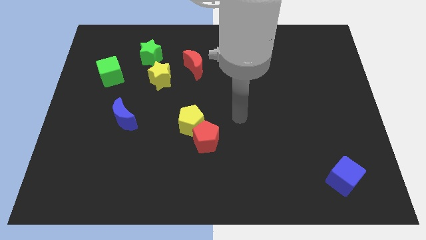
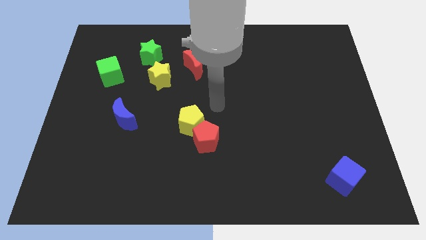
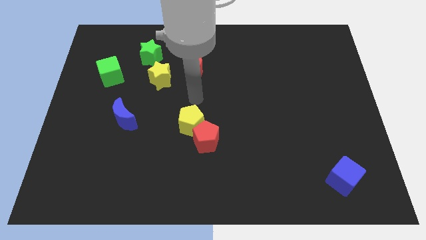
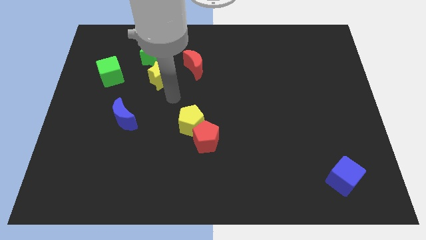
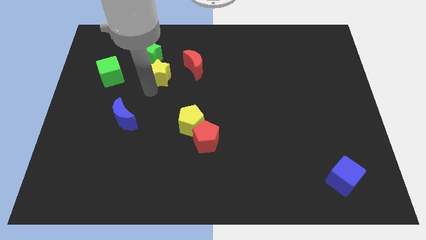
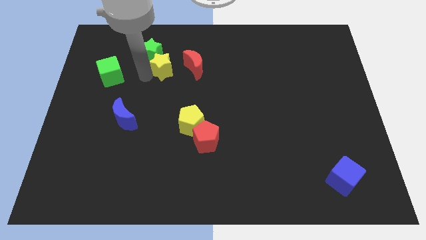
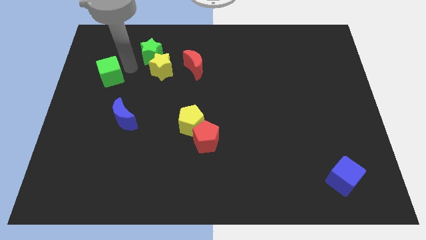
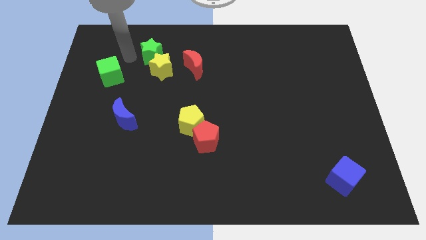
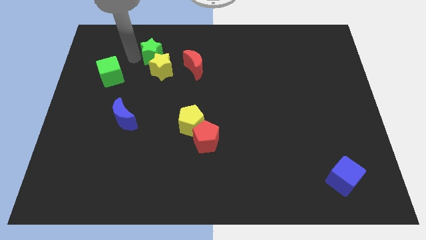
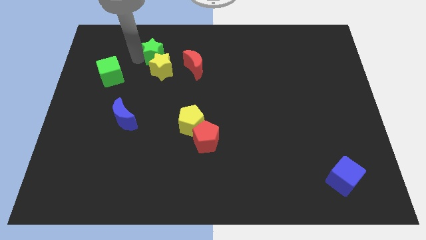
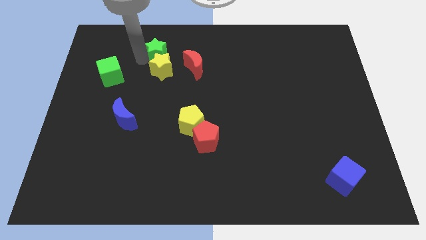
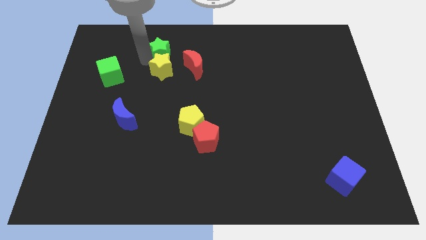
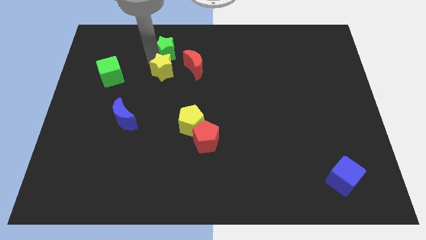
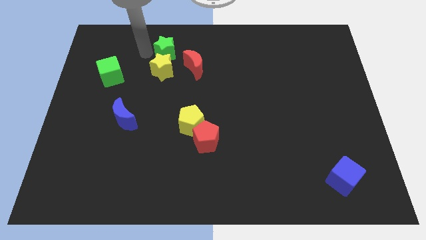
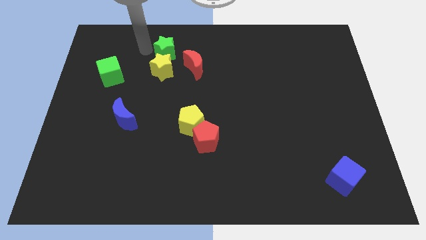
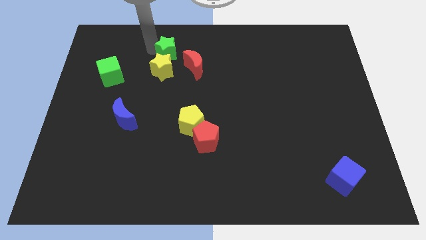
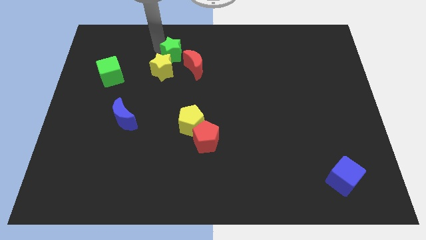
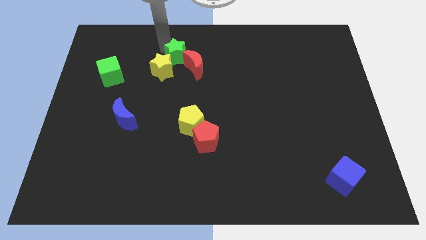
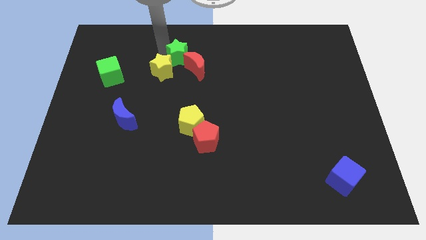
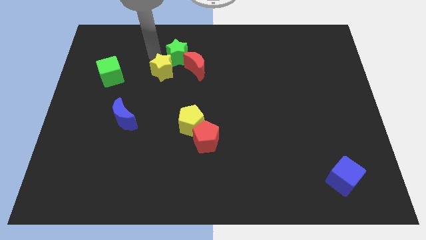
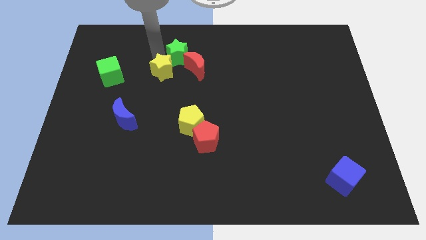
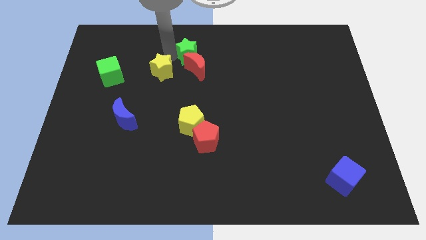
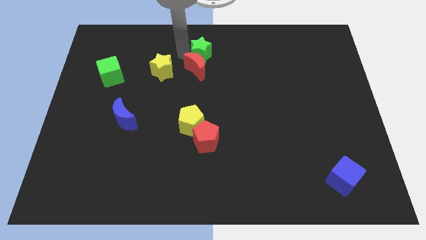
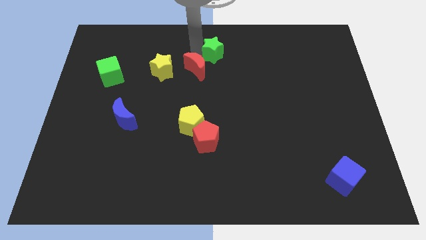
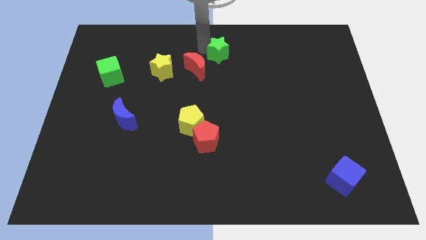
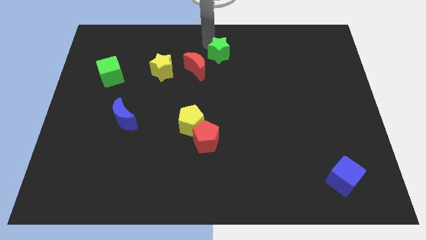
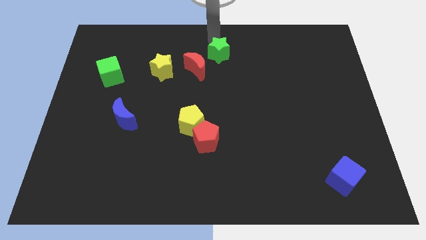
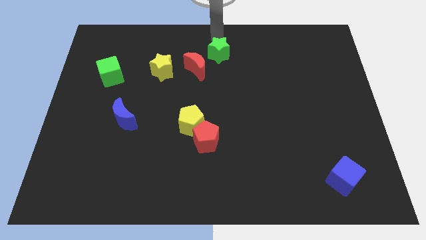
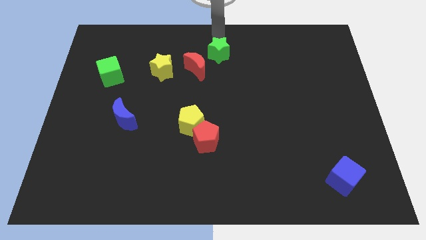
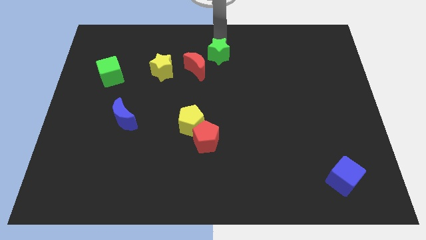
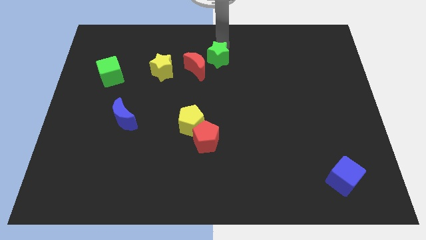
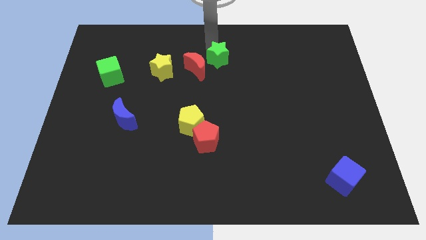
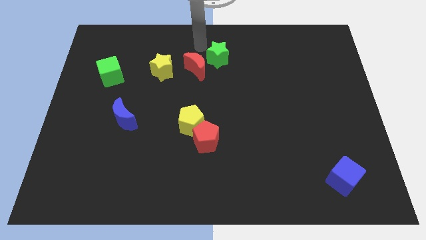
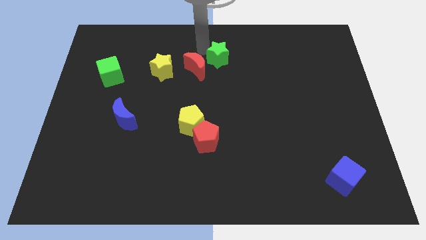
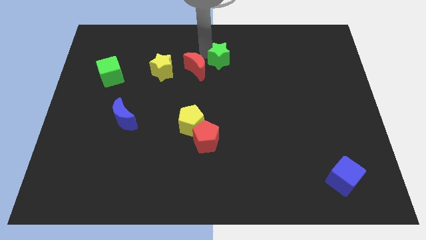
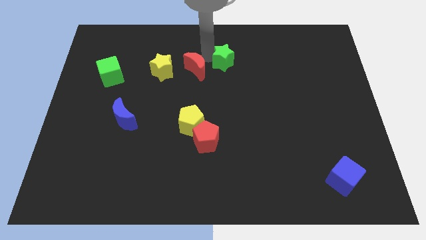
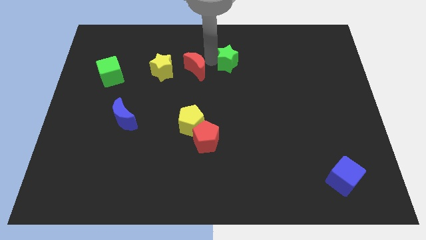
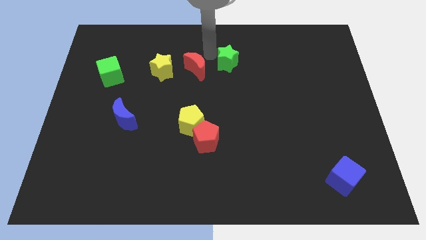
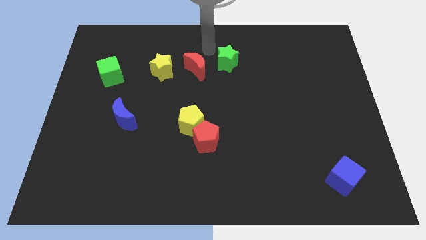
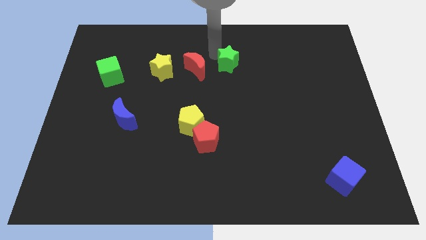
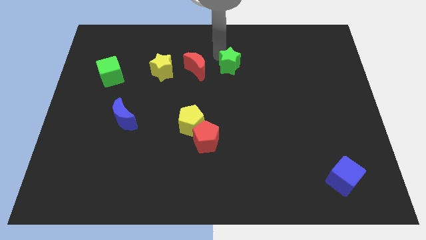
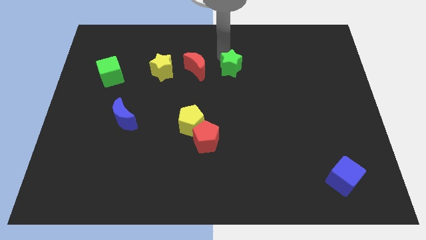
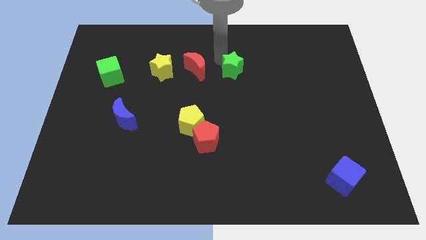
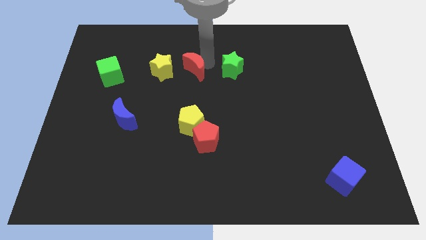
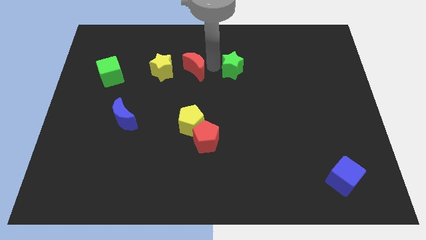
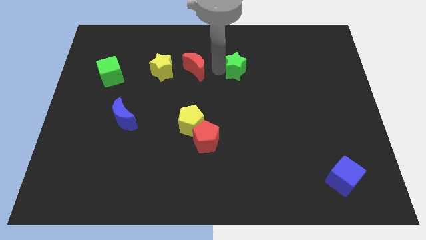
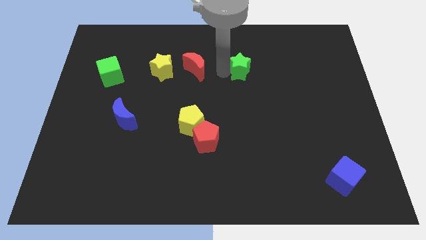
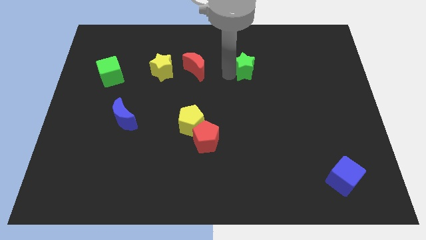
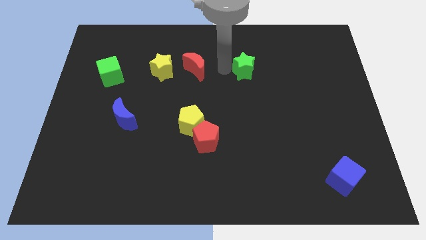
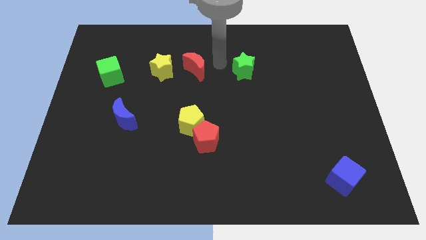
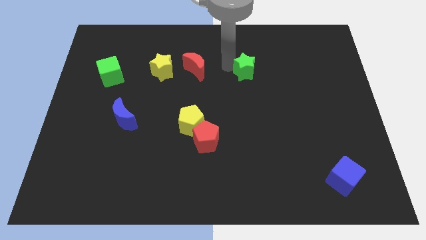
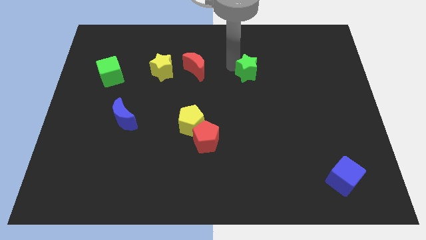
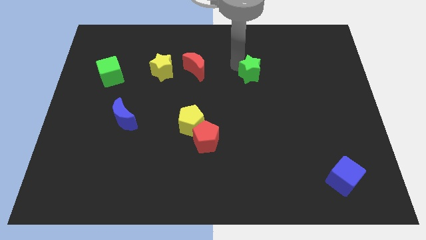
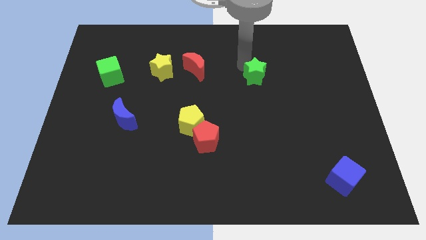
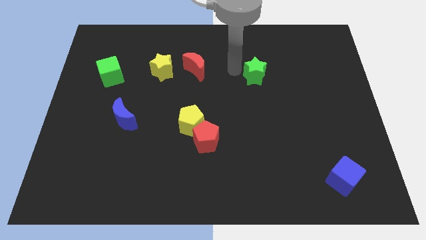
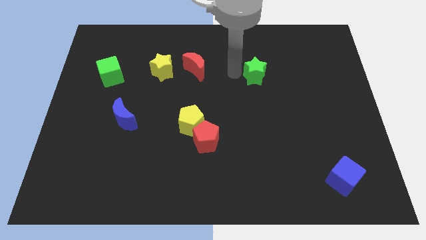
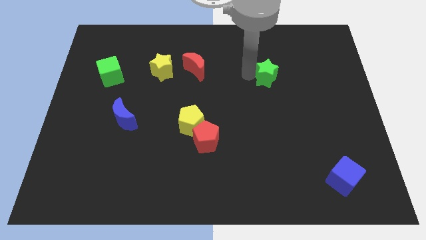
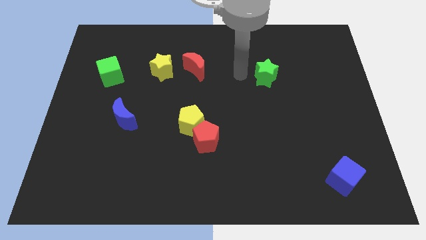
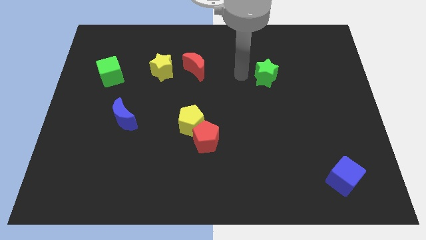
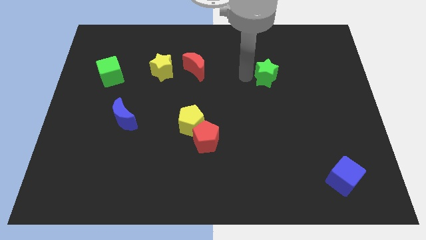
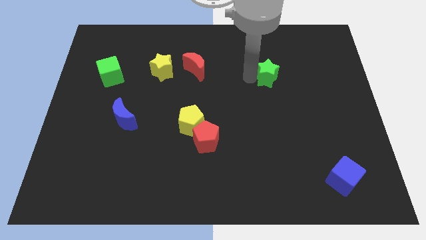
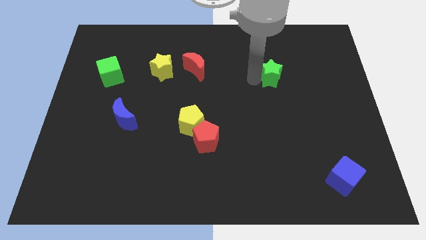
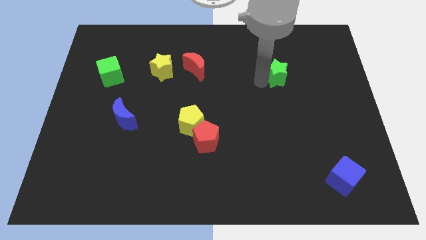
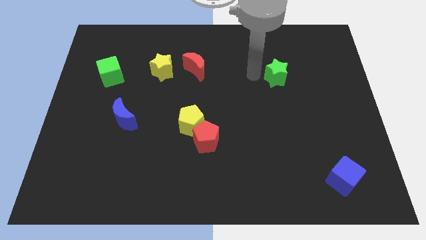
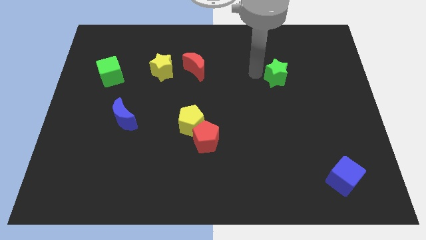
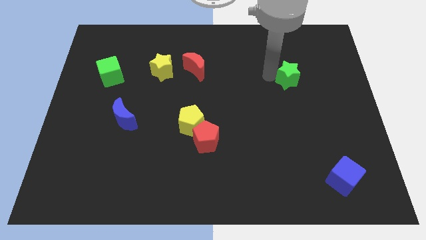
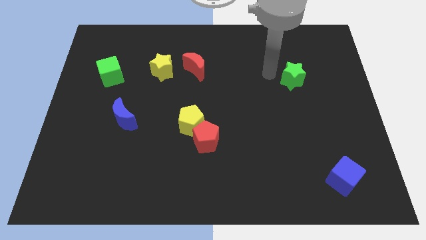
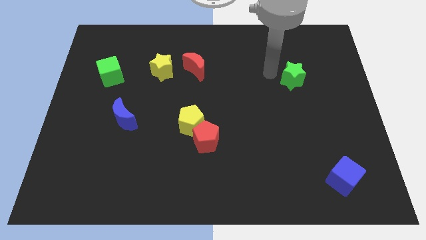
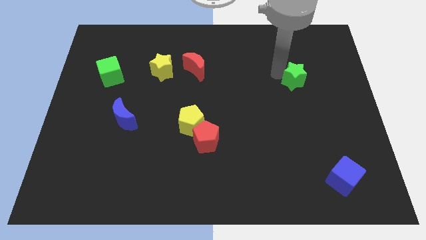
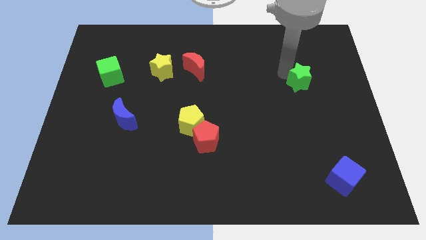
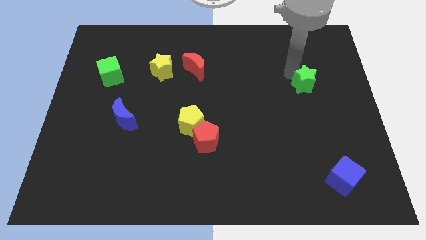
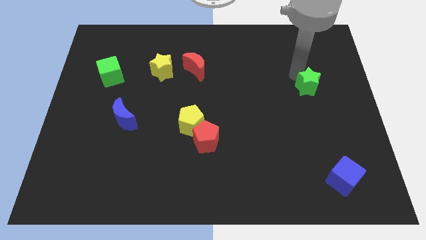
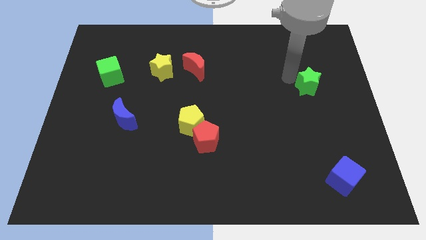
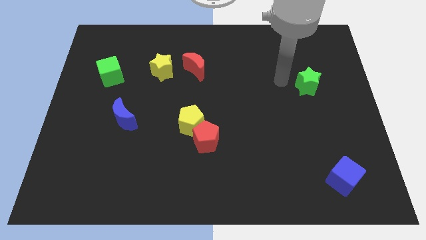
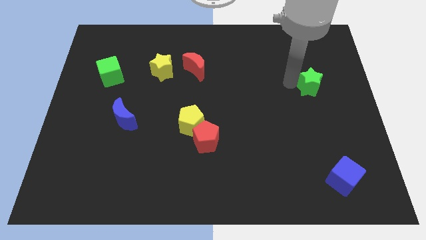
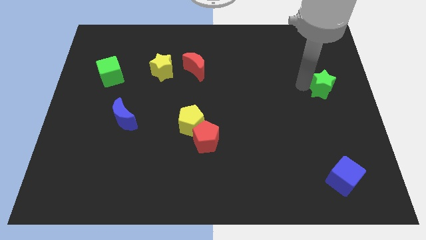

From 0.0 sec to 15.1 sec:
slide the green star to the right side
